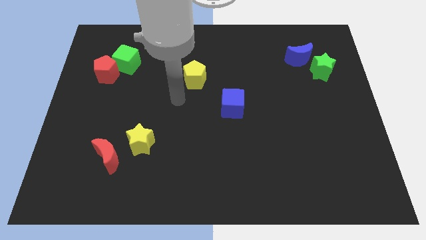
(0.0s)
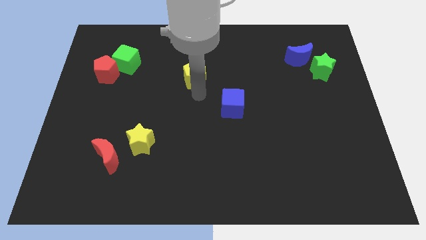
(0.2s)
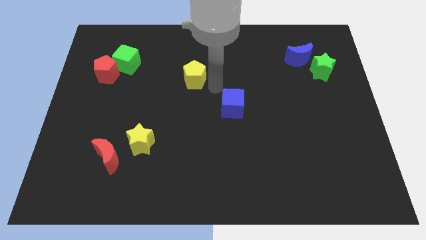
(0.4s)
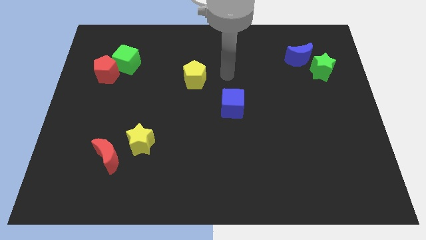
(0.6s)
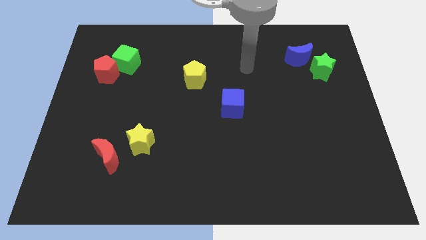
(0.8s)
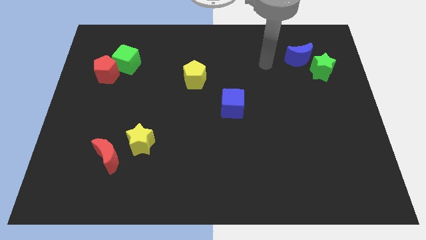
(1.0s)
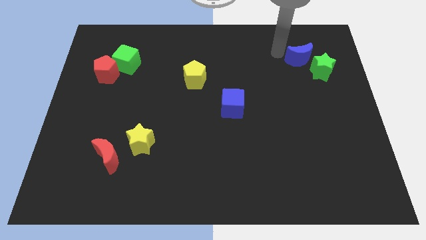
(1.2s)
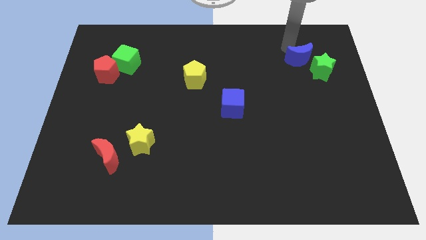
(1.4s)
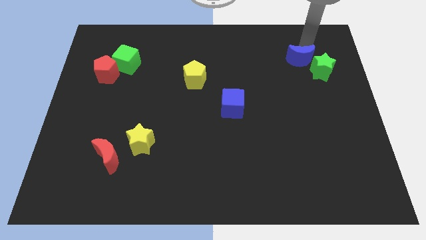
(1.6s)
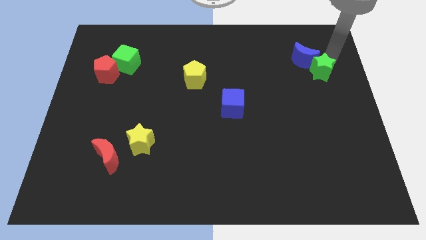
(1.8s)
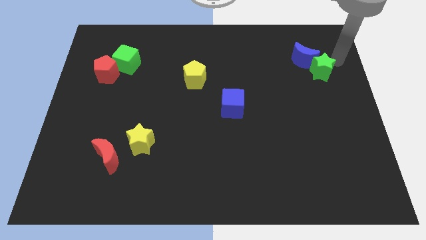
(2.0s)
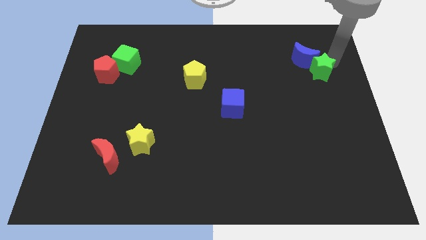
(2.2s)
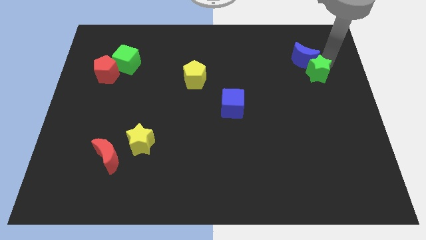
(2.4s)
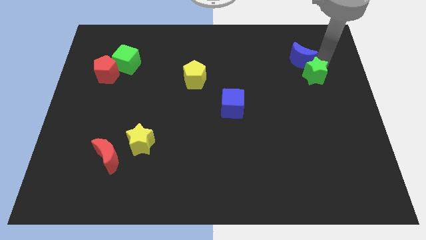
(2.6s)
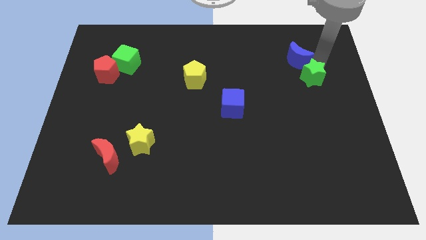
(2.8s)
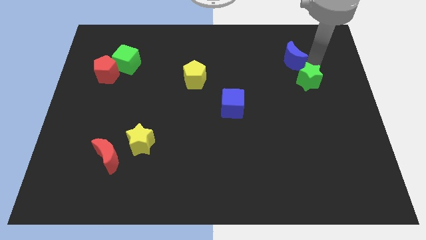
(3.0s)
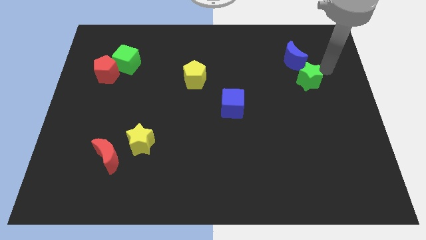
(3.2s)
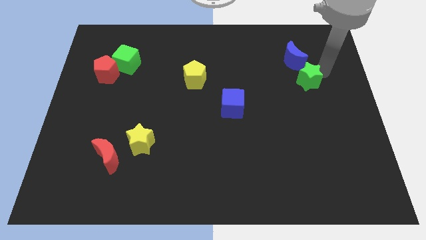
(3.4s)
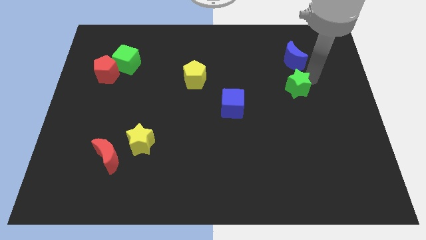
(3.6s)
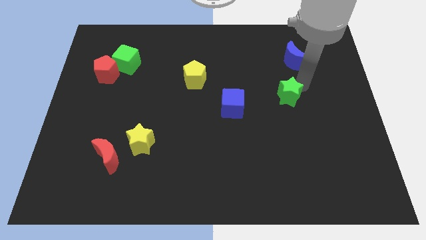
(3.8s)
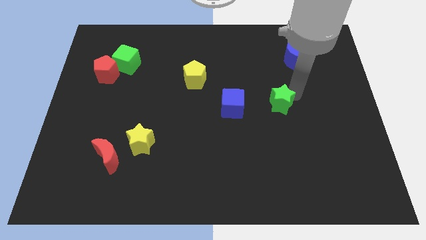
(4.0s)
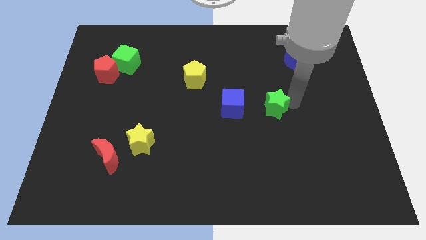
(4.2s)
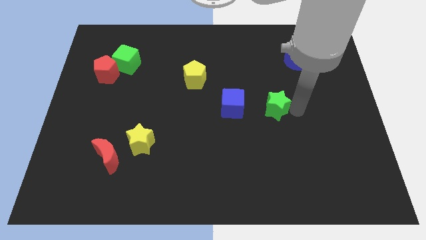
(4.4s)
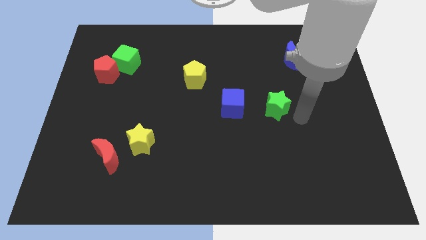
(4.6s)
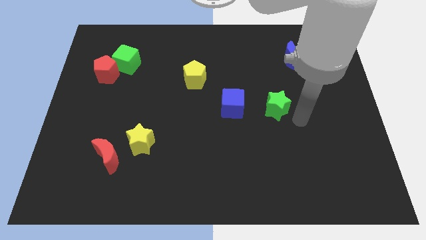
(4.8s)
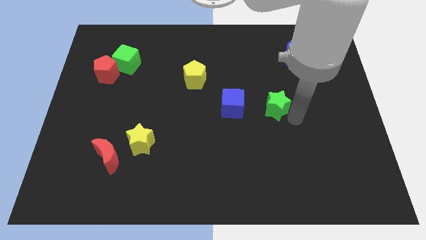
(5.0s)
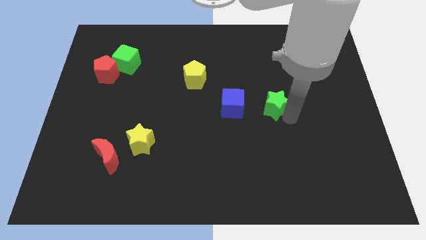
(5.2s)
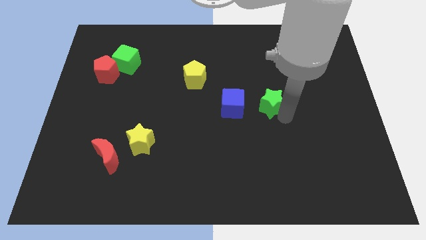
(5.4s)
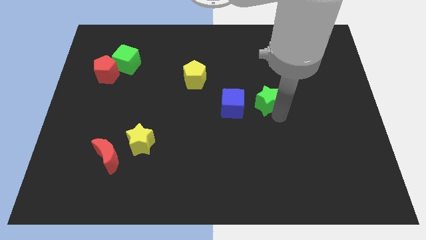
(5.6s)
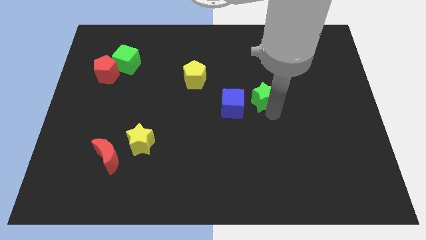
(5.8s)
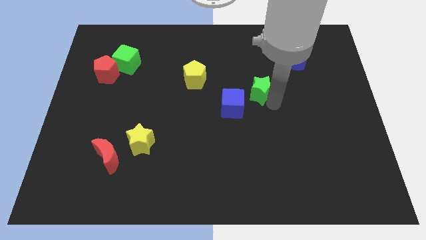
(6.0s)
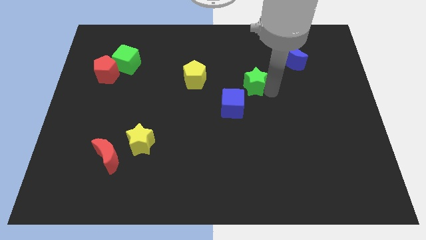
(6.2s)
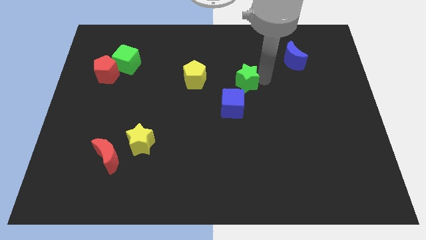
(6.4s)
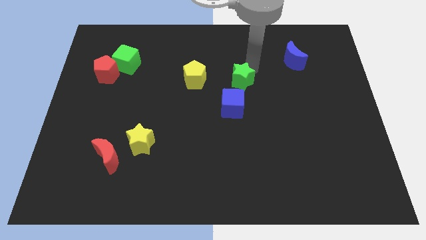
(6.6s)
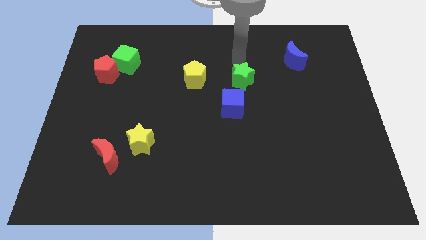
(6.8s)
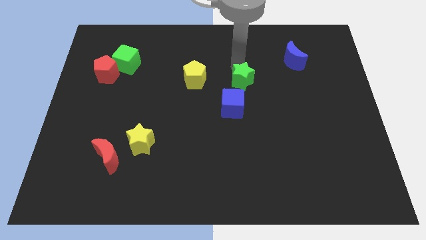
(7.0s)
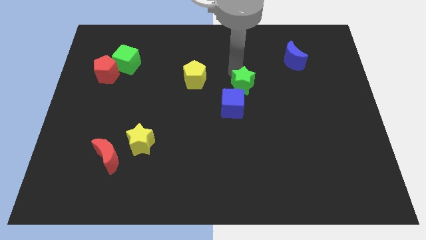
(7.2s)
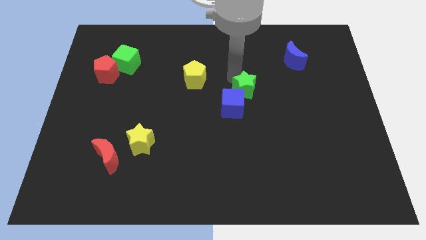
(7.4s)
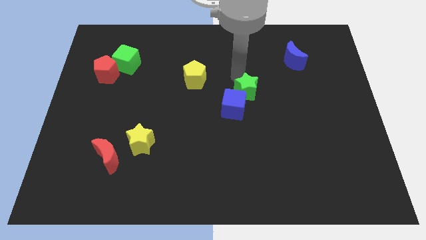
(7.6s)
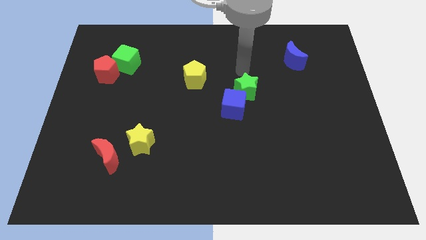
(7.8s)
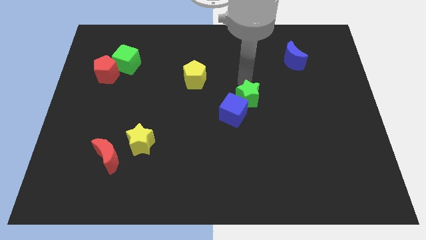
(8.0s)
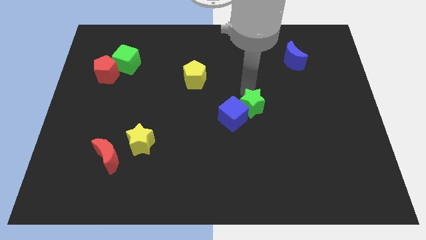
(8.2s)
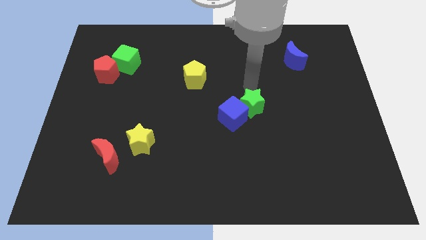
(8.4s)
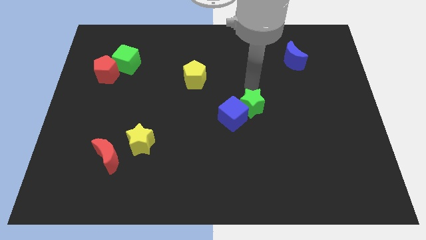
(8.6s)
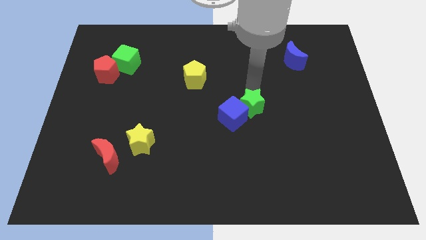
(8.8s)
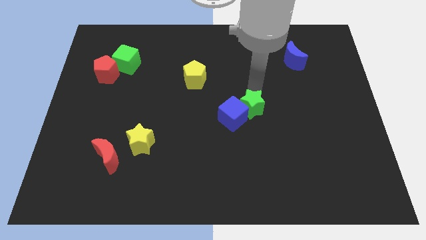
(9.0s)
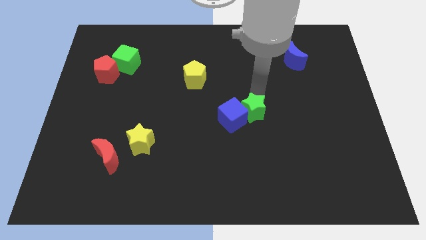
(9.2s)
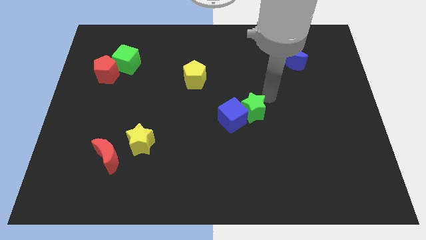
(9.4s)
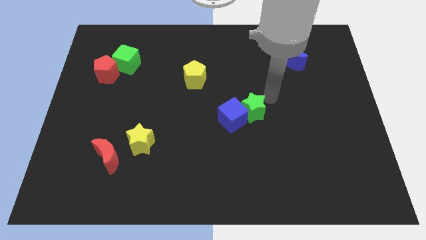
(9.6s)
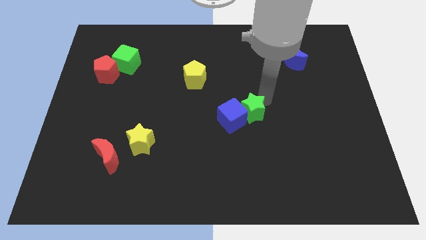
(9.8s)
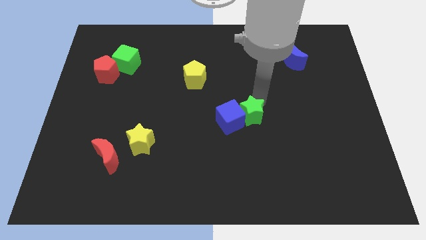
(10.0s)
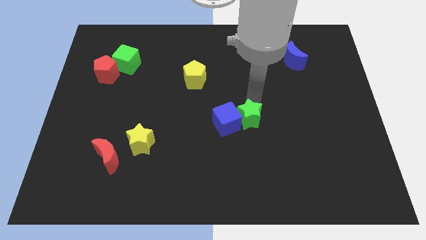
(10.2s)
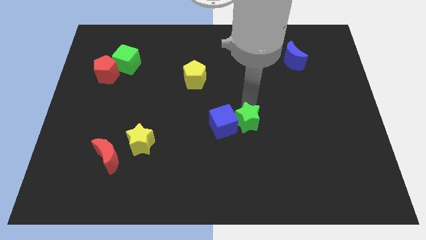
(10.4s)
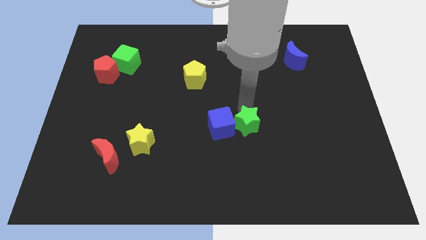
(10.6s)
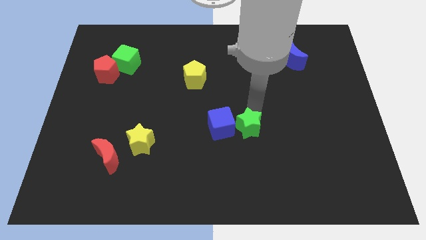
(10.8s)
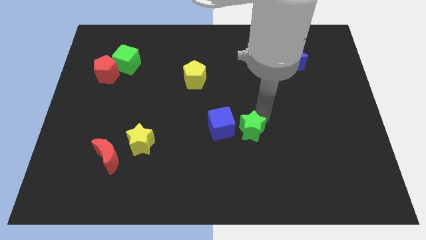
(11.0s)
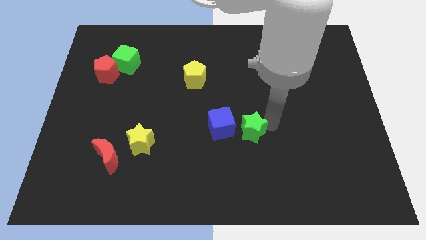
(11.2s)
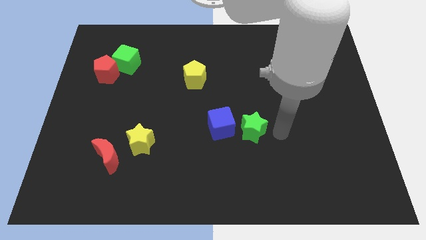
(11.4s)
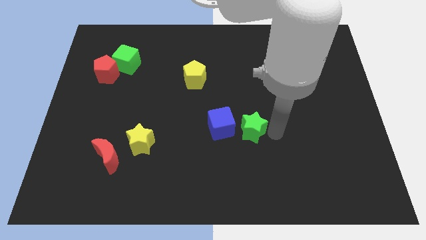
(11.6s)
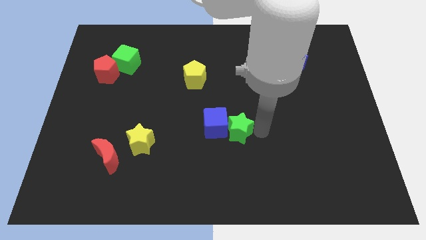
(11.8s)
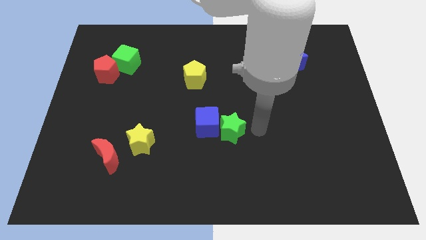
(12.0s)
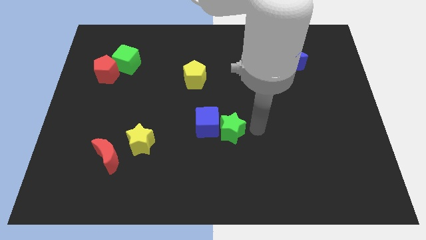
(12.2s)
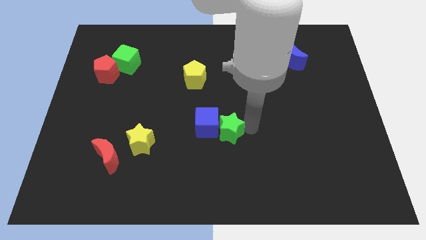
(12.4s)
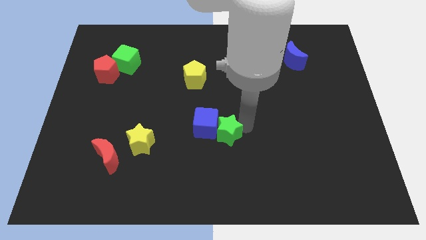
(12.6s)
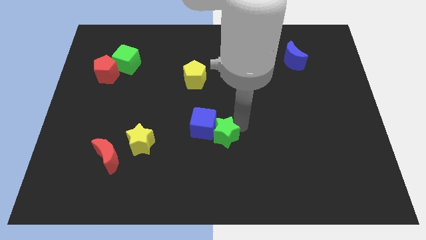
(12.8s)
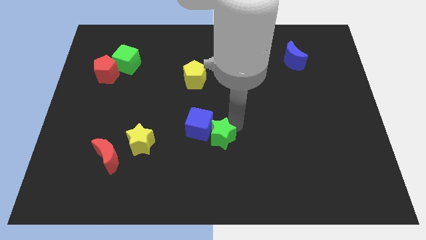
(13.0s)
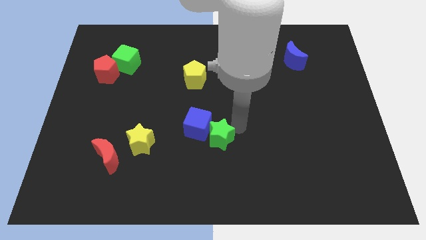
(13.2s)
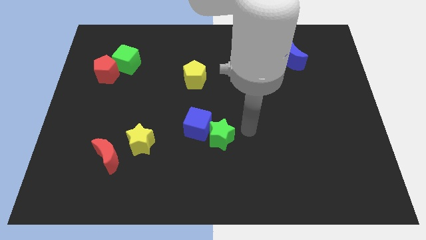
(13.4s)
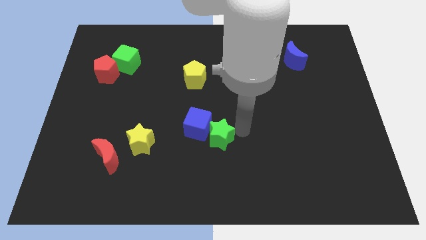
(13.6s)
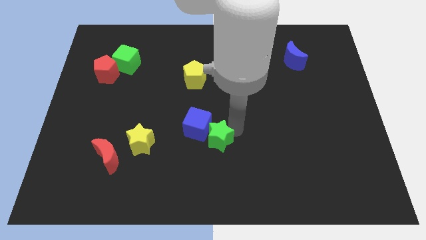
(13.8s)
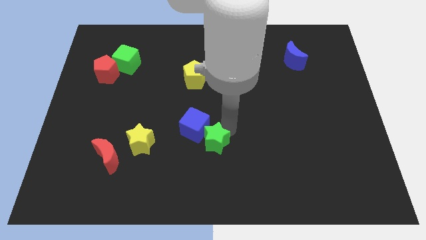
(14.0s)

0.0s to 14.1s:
put the green star right of the yellow star
